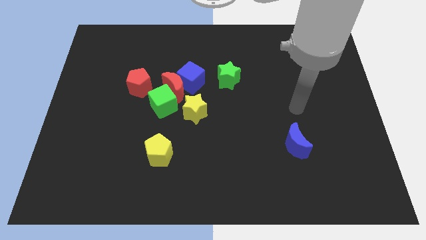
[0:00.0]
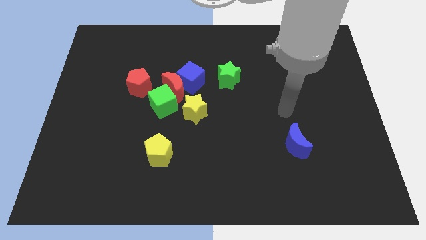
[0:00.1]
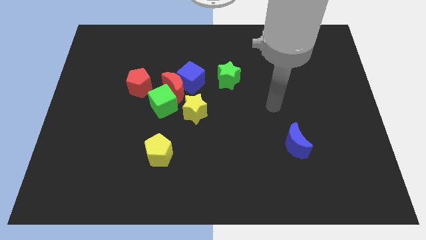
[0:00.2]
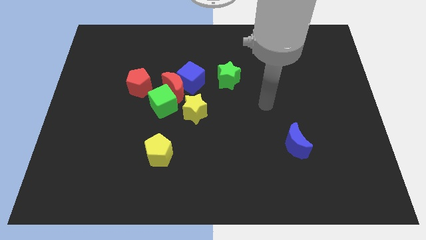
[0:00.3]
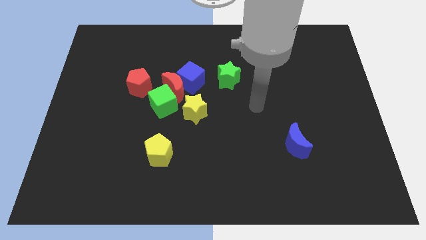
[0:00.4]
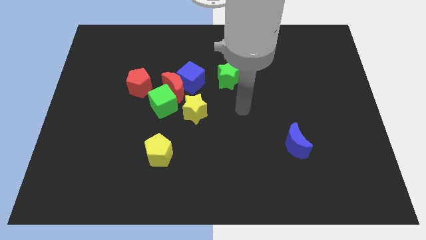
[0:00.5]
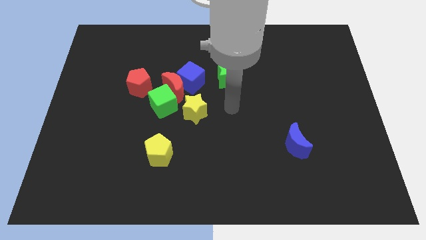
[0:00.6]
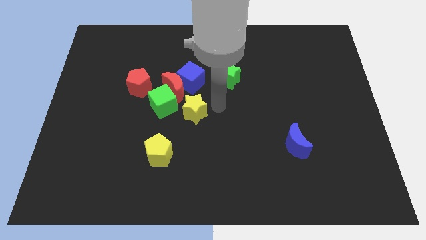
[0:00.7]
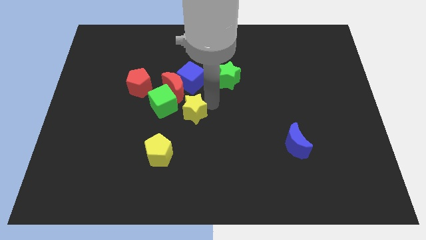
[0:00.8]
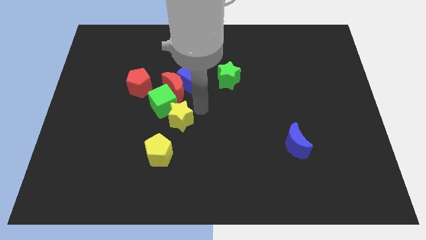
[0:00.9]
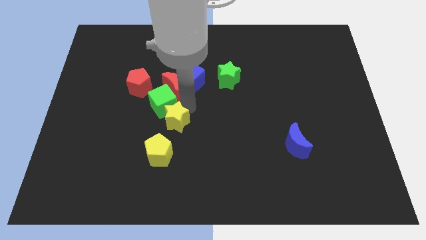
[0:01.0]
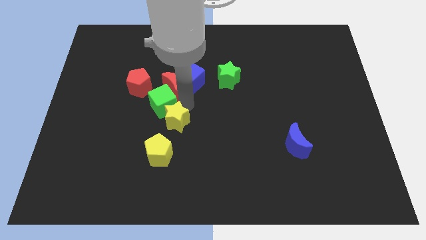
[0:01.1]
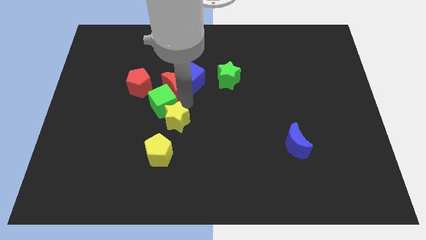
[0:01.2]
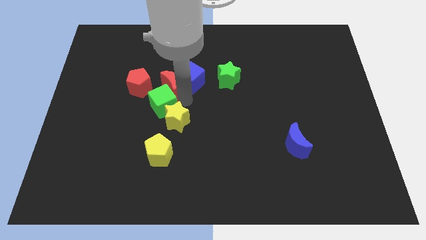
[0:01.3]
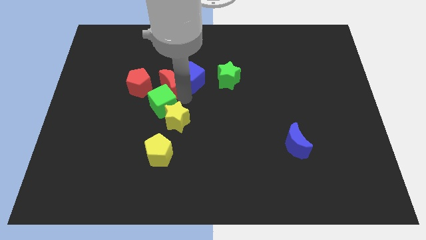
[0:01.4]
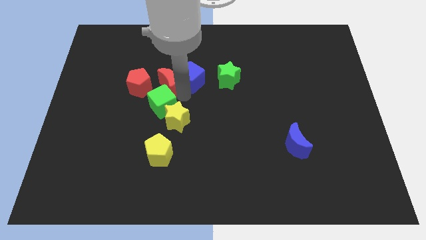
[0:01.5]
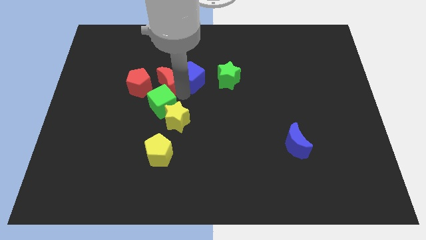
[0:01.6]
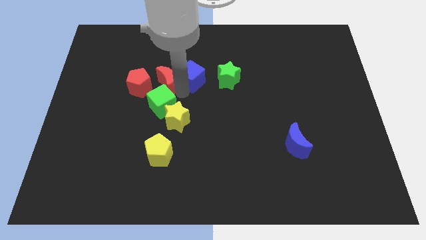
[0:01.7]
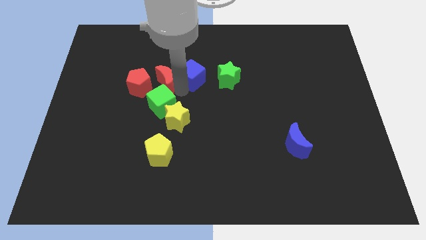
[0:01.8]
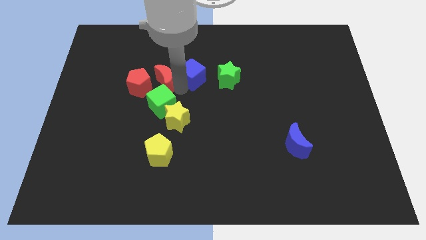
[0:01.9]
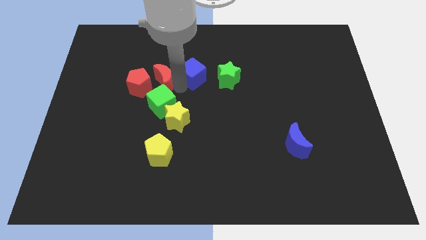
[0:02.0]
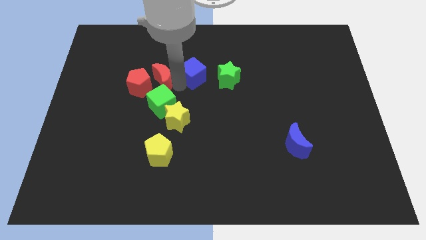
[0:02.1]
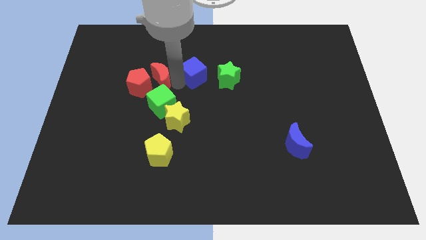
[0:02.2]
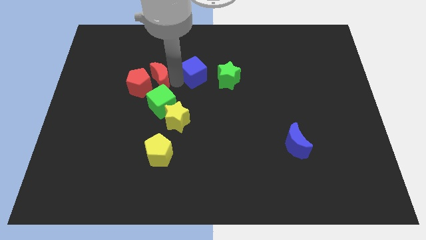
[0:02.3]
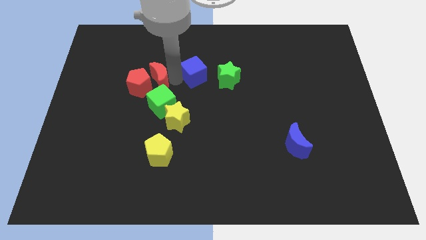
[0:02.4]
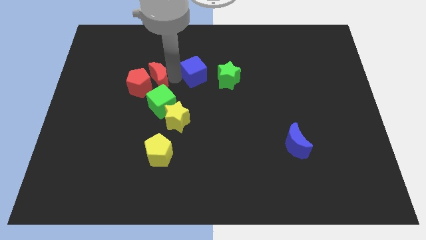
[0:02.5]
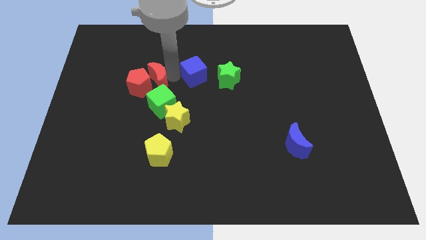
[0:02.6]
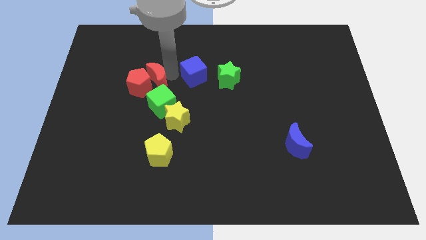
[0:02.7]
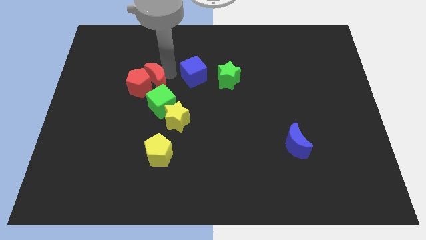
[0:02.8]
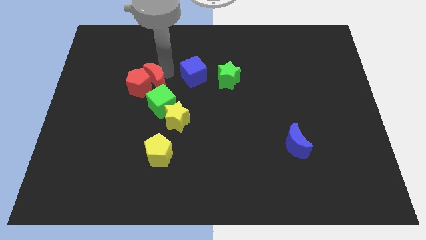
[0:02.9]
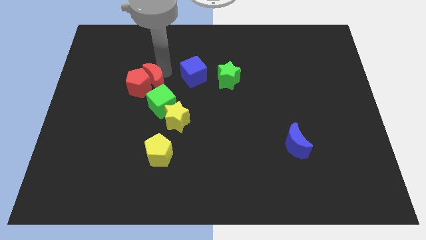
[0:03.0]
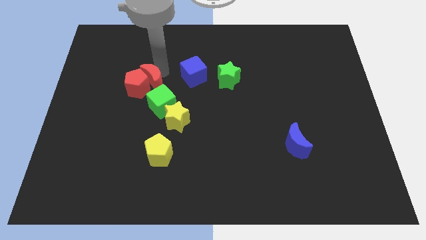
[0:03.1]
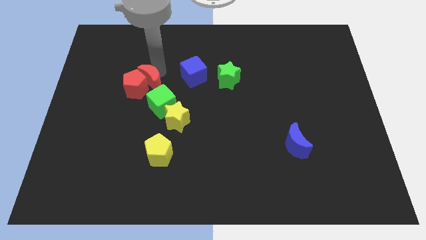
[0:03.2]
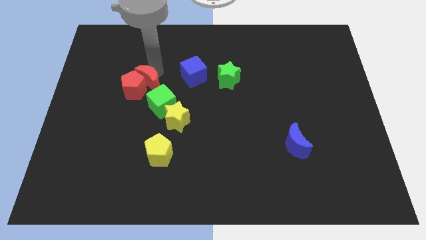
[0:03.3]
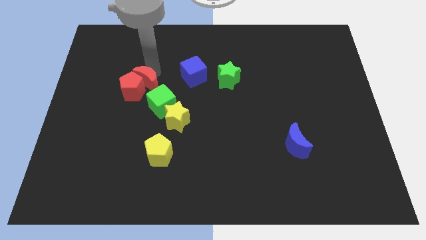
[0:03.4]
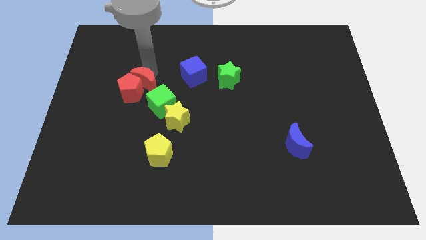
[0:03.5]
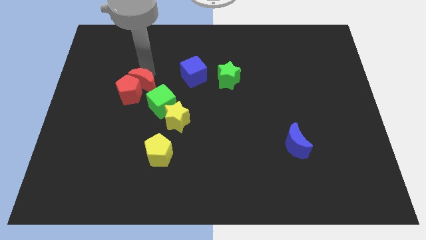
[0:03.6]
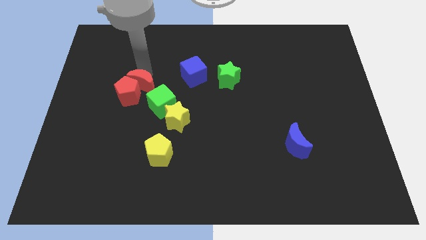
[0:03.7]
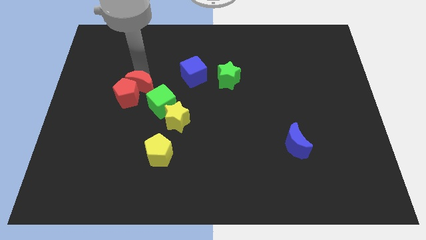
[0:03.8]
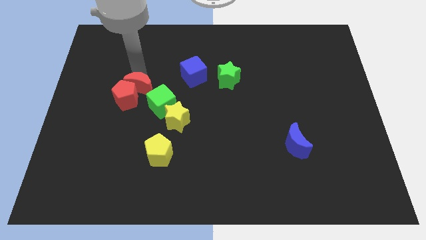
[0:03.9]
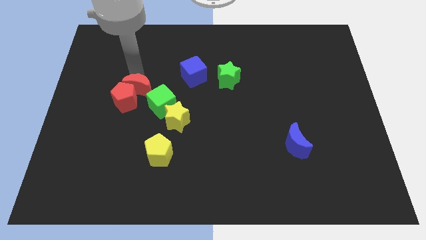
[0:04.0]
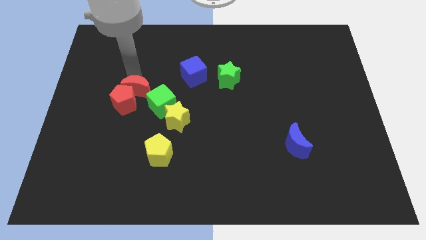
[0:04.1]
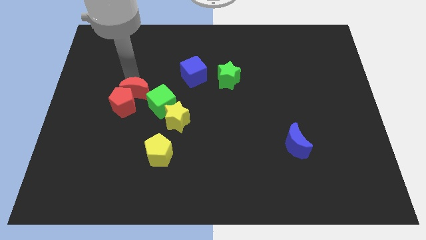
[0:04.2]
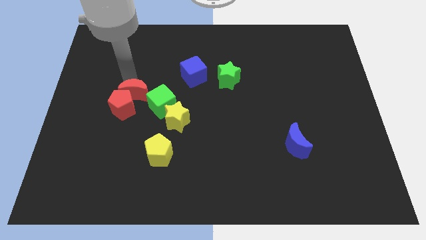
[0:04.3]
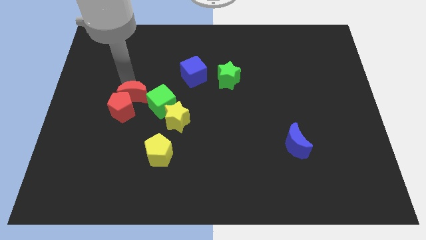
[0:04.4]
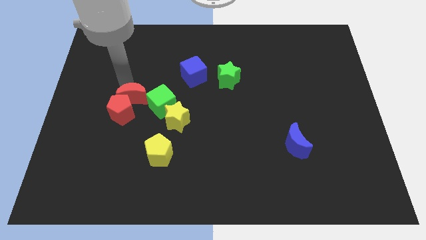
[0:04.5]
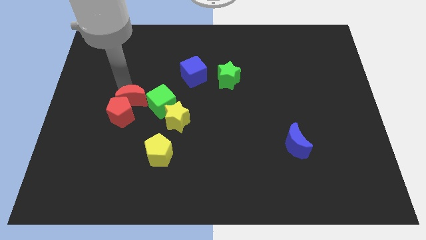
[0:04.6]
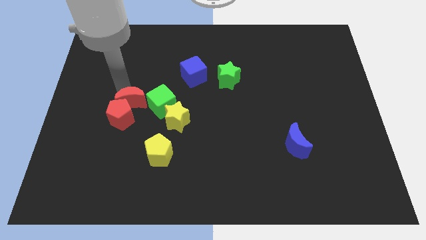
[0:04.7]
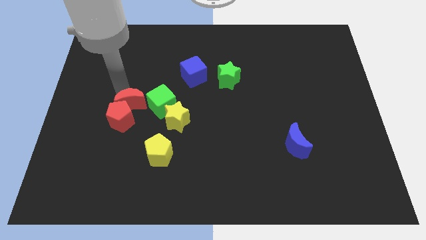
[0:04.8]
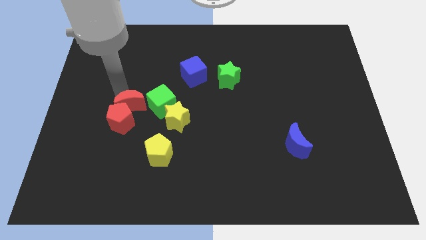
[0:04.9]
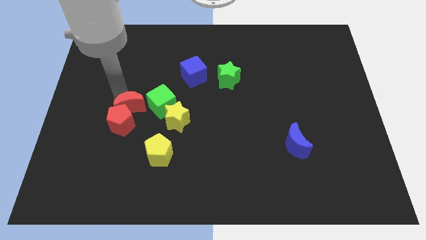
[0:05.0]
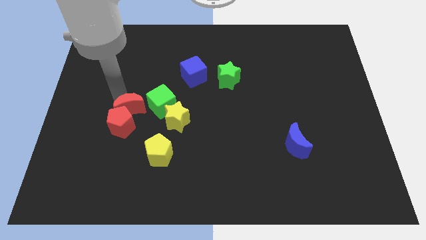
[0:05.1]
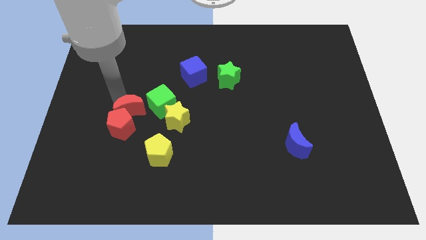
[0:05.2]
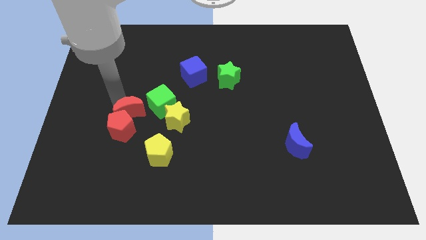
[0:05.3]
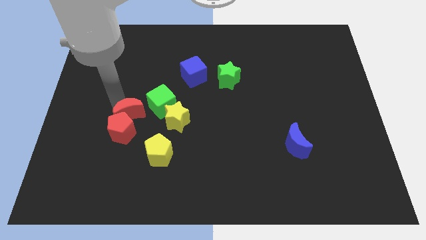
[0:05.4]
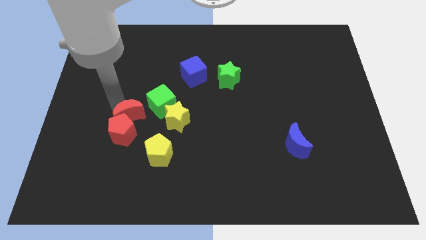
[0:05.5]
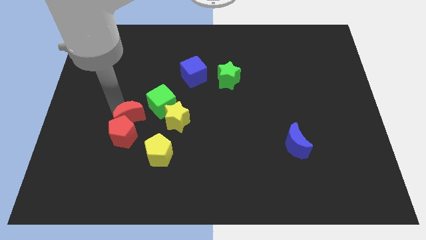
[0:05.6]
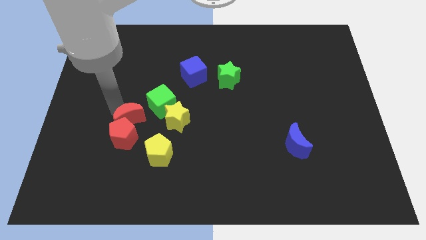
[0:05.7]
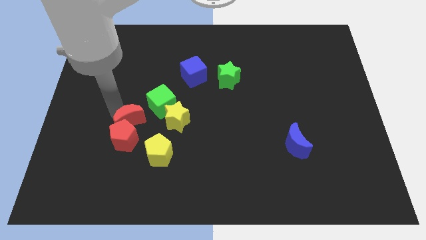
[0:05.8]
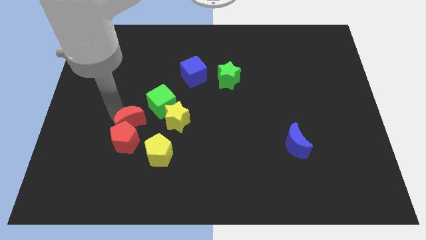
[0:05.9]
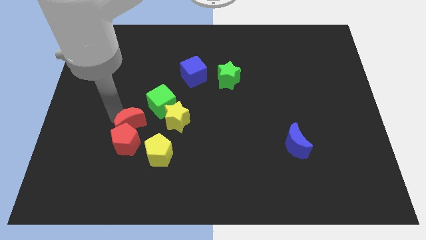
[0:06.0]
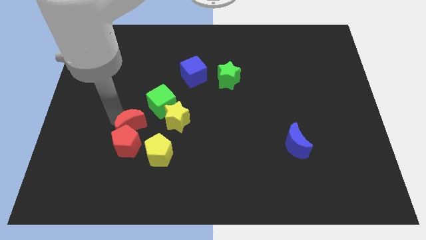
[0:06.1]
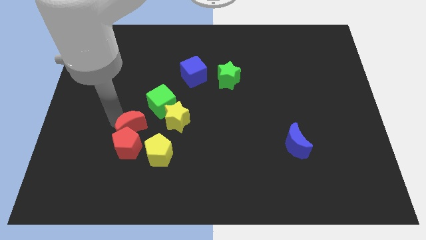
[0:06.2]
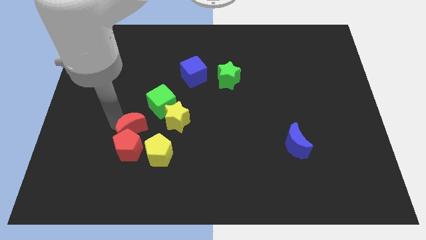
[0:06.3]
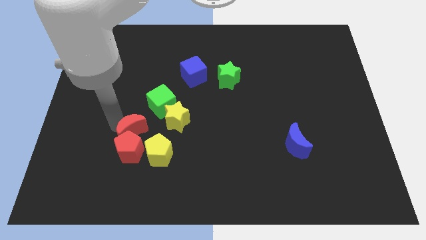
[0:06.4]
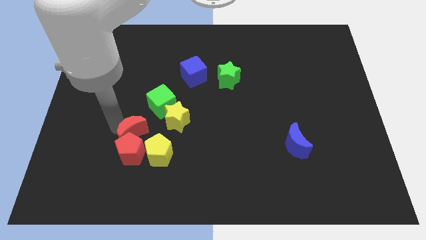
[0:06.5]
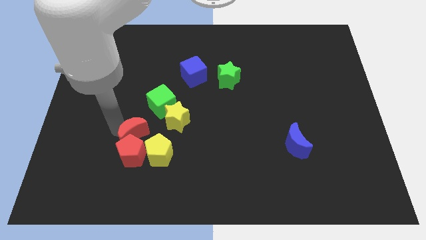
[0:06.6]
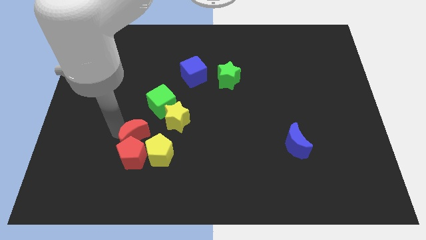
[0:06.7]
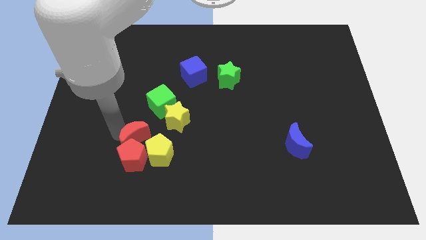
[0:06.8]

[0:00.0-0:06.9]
separate the red moon from the group of blocks

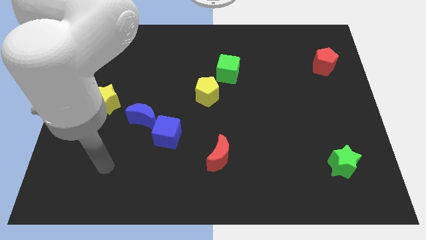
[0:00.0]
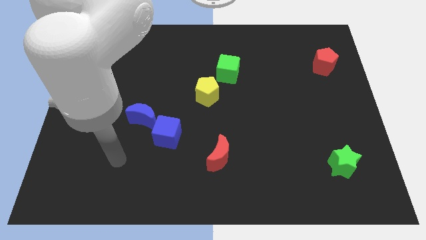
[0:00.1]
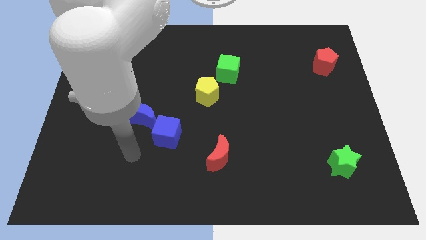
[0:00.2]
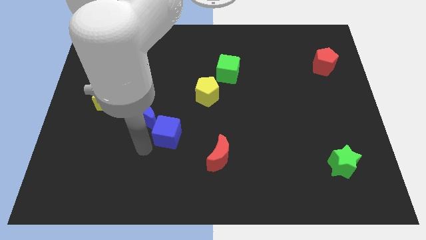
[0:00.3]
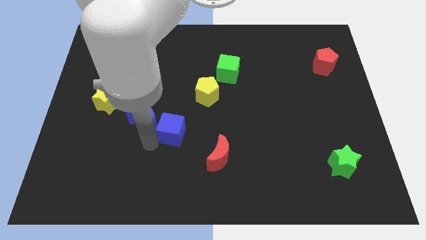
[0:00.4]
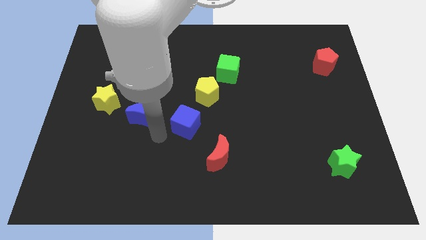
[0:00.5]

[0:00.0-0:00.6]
move the blue moon away from the blue cube

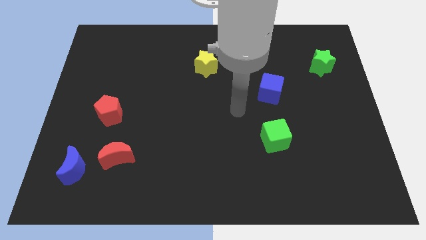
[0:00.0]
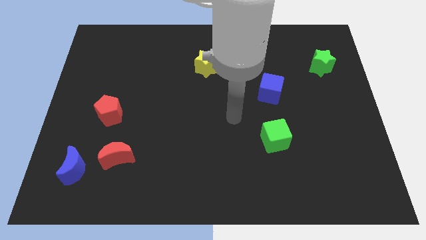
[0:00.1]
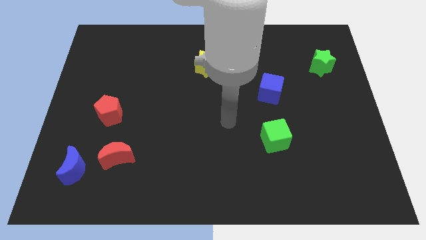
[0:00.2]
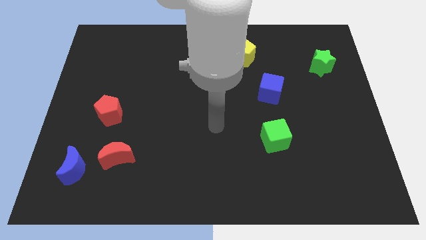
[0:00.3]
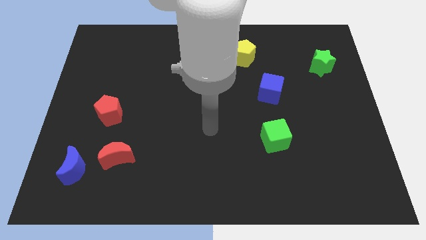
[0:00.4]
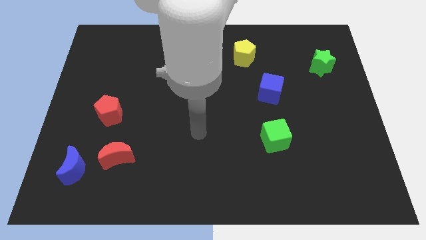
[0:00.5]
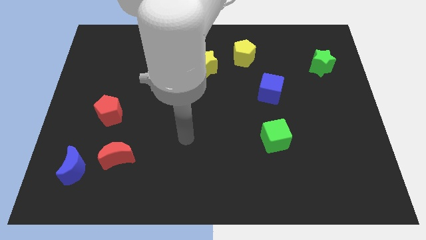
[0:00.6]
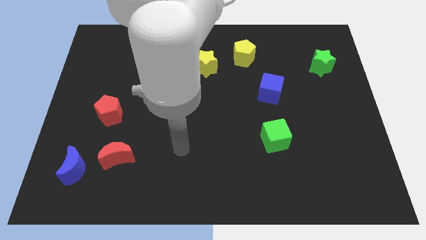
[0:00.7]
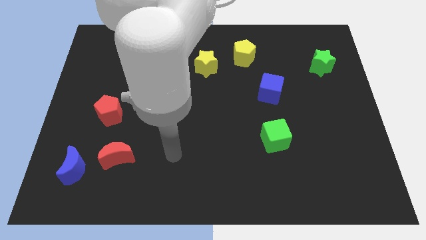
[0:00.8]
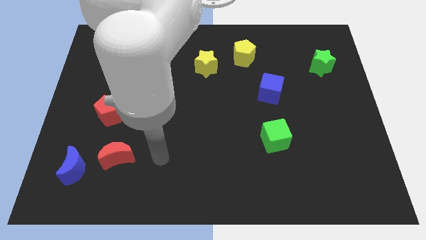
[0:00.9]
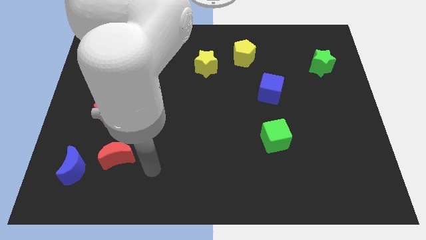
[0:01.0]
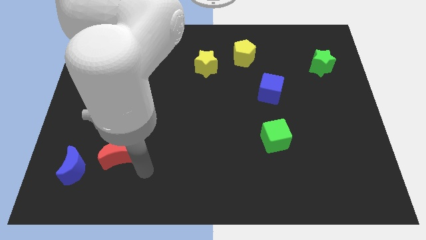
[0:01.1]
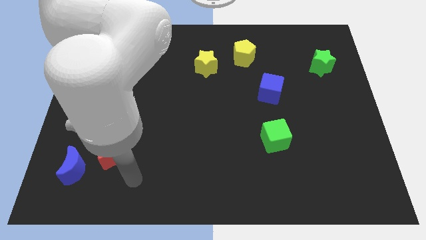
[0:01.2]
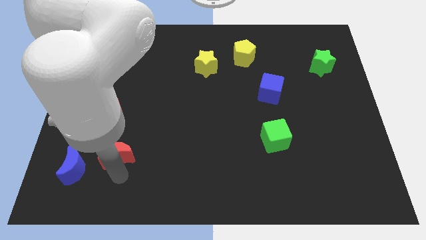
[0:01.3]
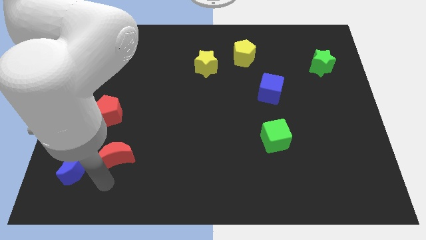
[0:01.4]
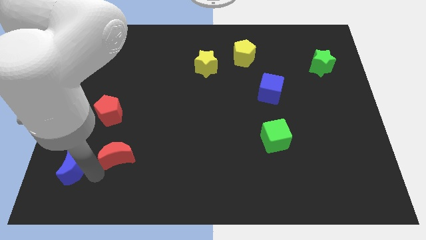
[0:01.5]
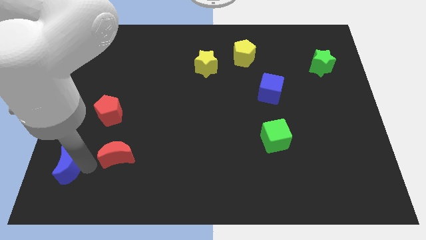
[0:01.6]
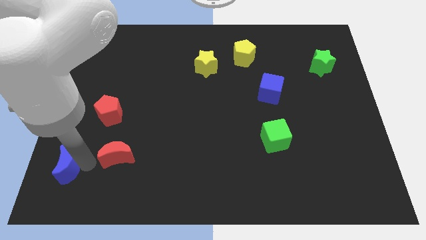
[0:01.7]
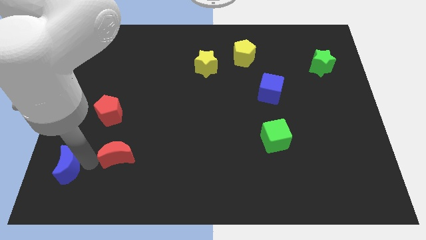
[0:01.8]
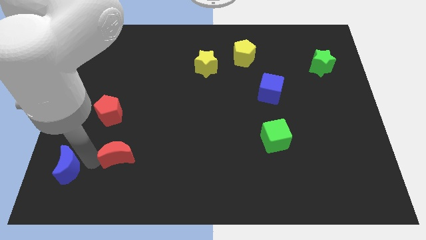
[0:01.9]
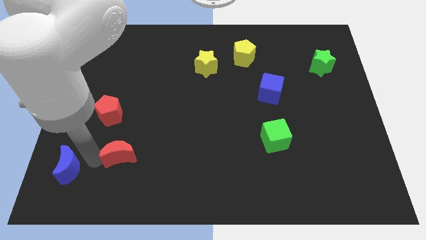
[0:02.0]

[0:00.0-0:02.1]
separate the red moon from the blue moon
